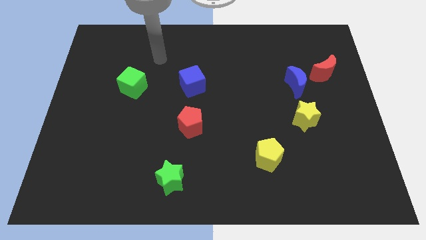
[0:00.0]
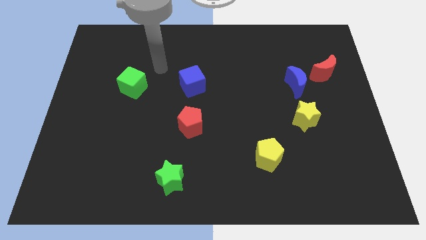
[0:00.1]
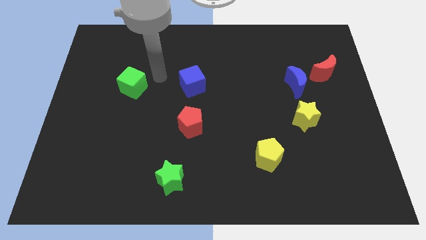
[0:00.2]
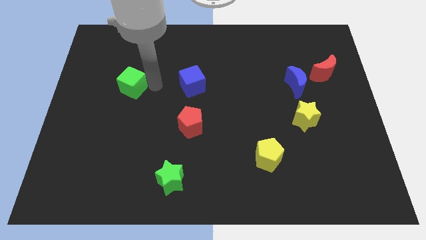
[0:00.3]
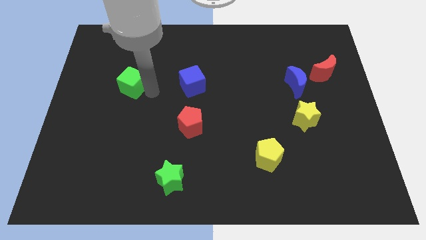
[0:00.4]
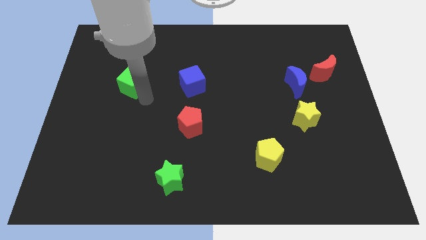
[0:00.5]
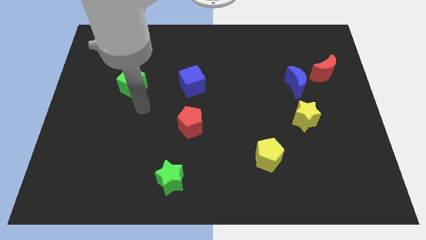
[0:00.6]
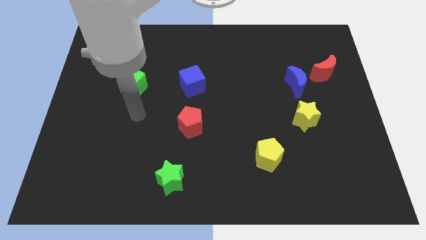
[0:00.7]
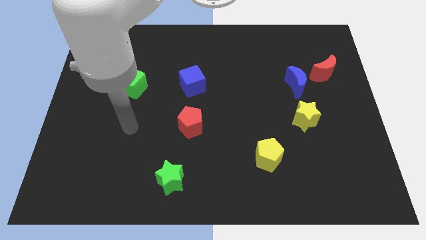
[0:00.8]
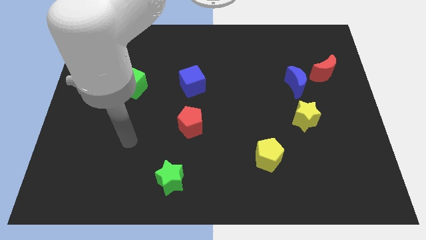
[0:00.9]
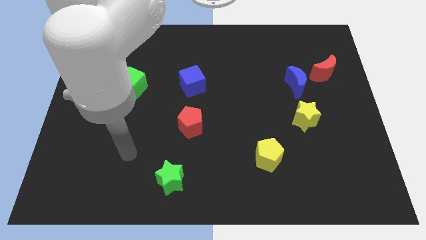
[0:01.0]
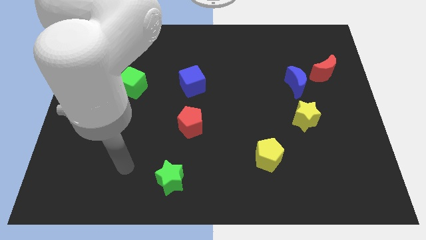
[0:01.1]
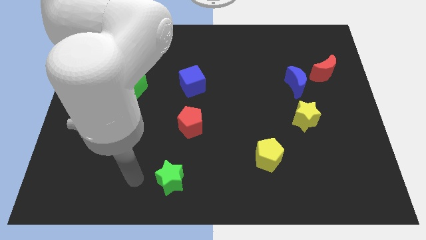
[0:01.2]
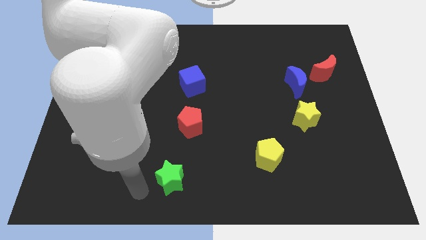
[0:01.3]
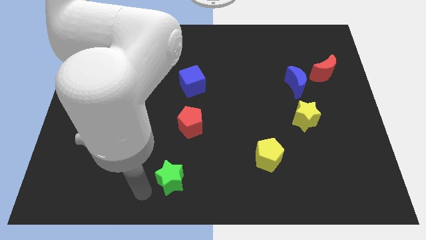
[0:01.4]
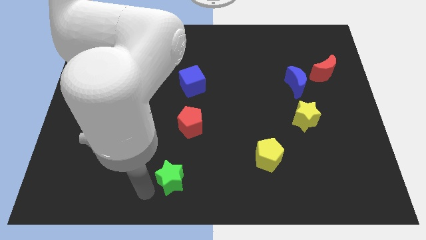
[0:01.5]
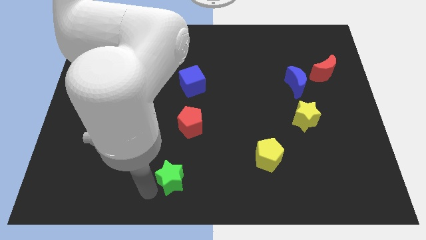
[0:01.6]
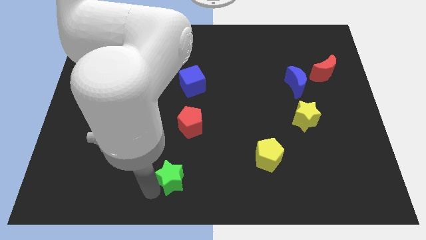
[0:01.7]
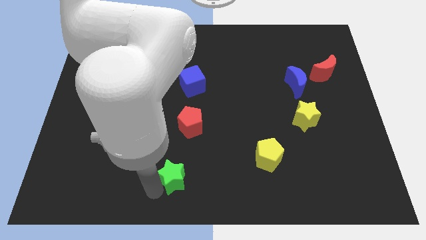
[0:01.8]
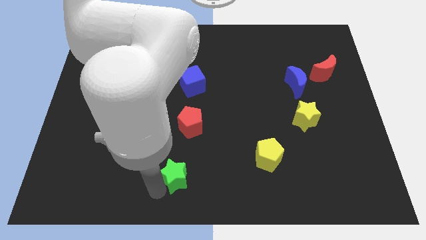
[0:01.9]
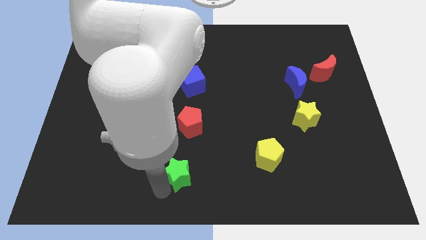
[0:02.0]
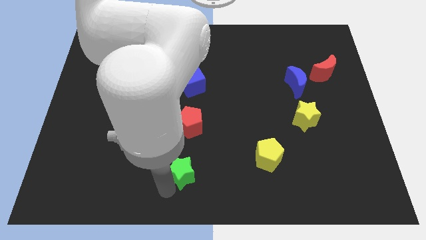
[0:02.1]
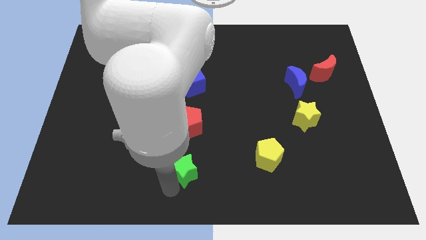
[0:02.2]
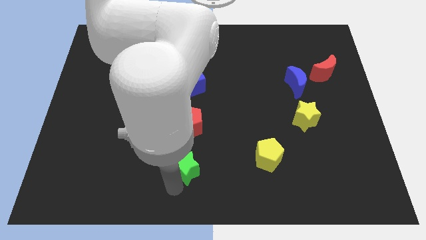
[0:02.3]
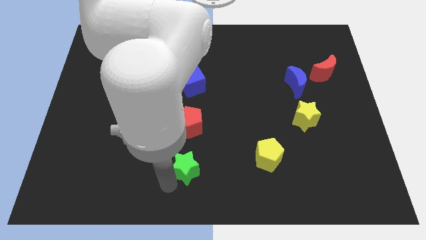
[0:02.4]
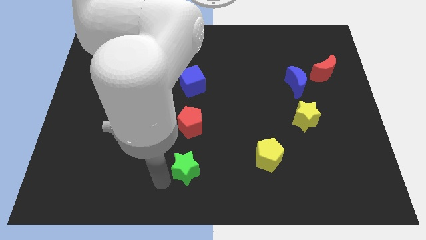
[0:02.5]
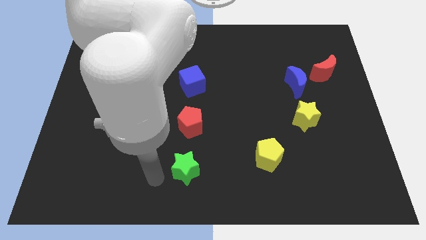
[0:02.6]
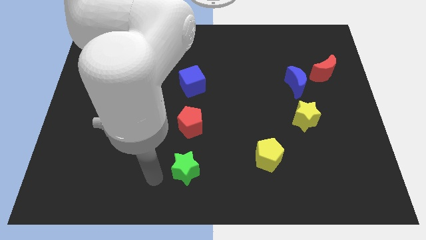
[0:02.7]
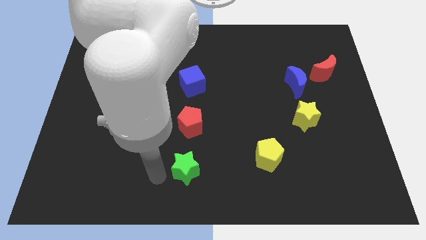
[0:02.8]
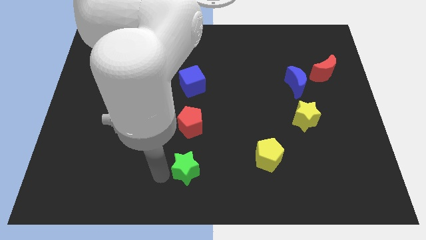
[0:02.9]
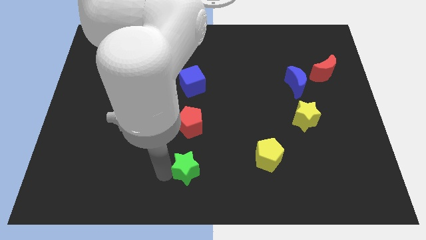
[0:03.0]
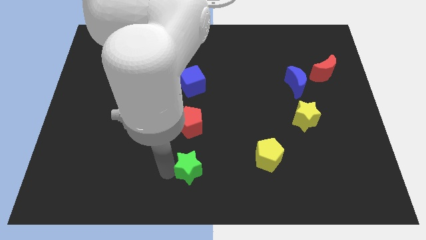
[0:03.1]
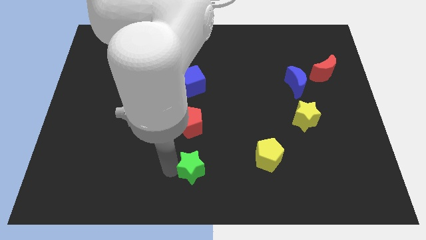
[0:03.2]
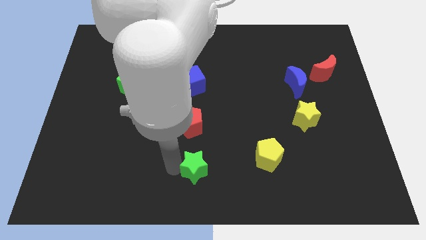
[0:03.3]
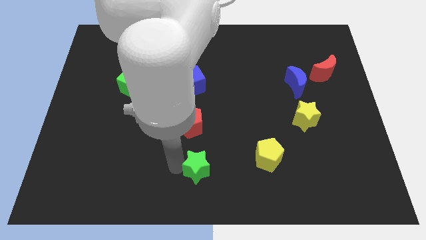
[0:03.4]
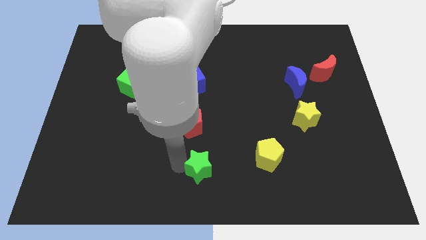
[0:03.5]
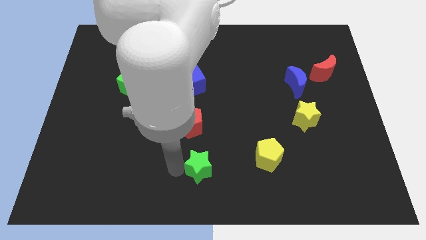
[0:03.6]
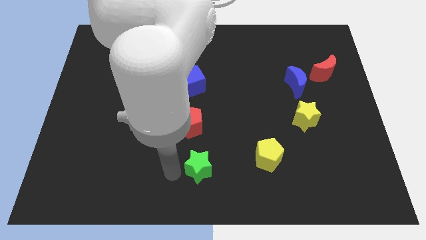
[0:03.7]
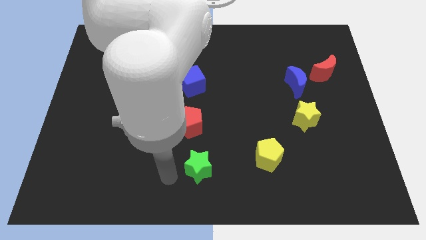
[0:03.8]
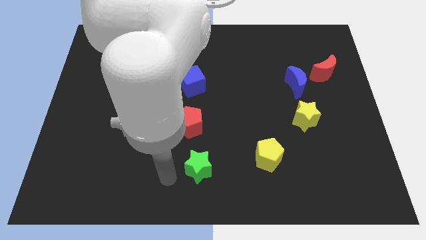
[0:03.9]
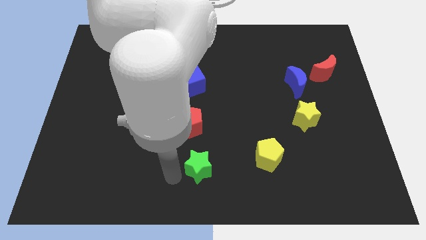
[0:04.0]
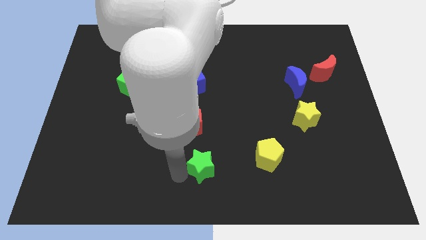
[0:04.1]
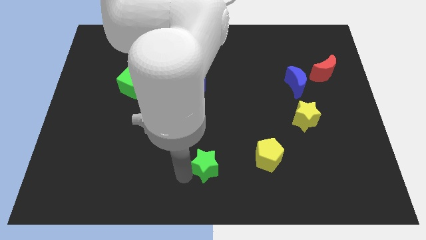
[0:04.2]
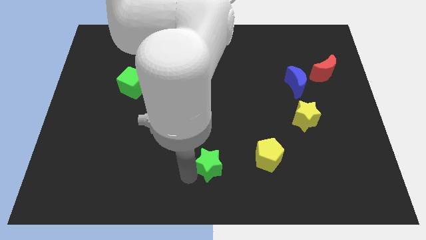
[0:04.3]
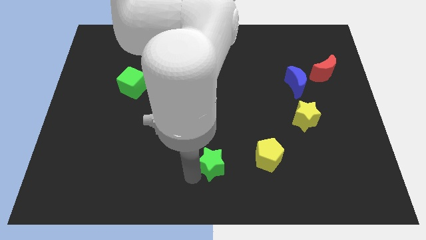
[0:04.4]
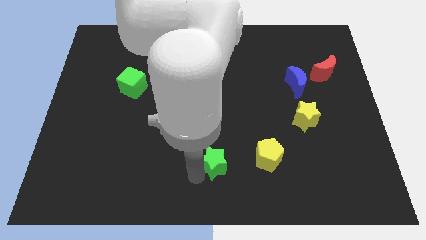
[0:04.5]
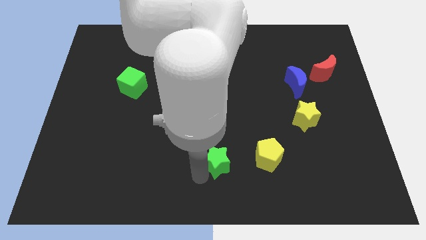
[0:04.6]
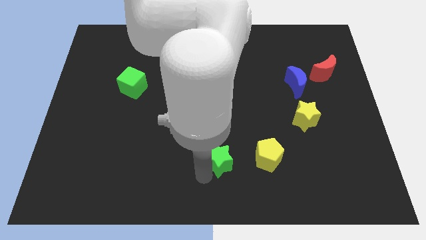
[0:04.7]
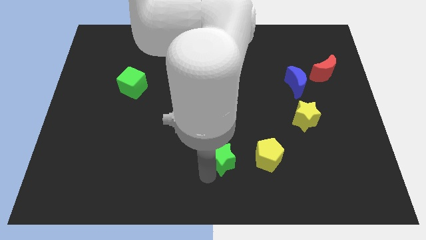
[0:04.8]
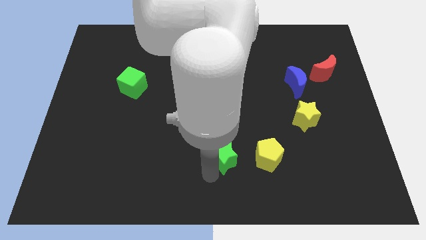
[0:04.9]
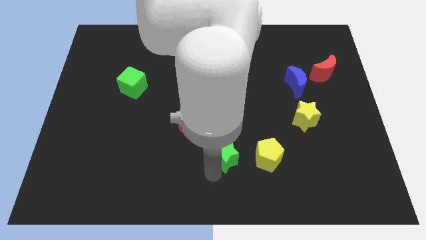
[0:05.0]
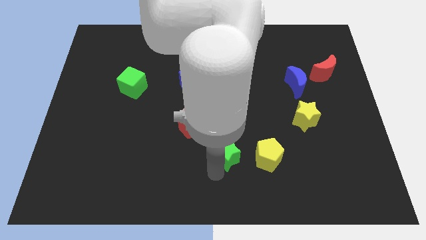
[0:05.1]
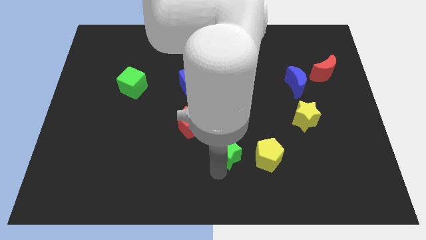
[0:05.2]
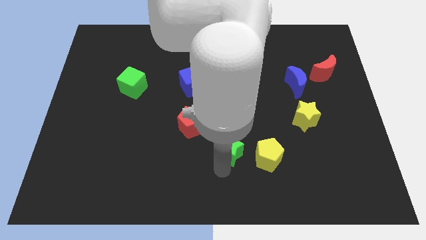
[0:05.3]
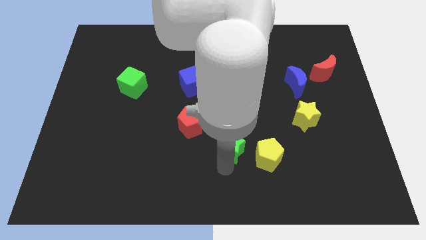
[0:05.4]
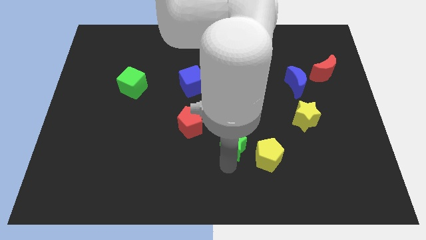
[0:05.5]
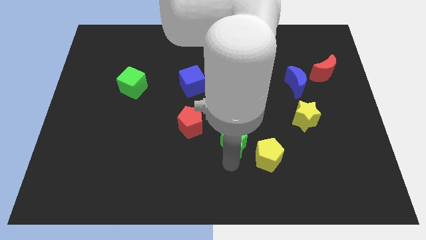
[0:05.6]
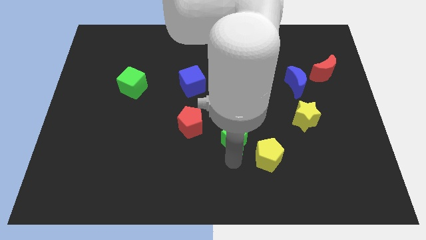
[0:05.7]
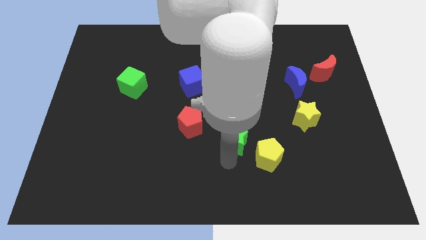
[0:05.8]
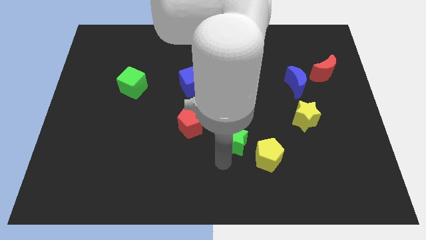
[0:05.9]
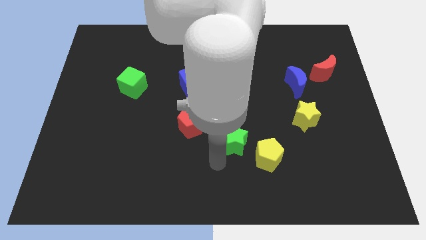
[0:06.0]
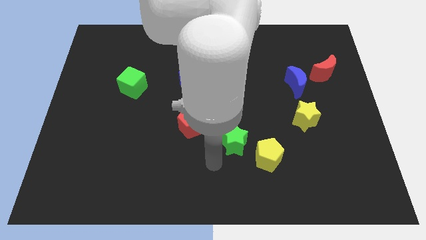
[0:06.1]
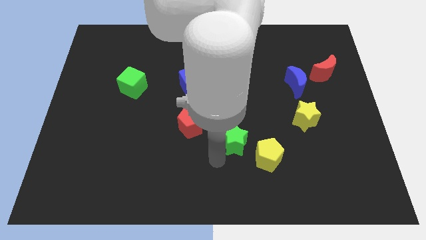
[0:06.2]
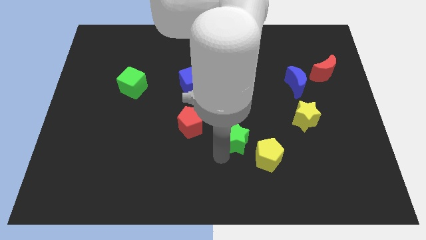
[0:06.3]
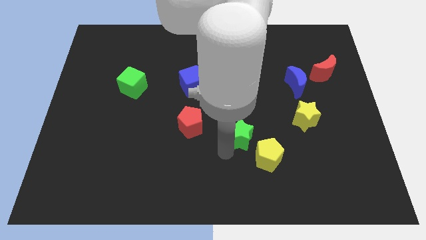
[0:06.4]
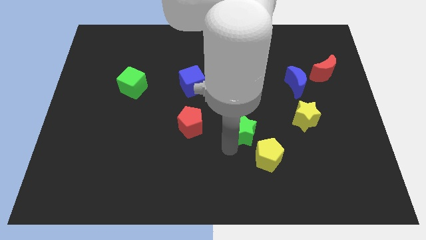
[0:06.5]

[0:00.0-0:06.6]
move the green star left of the yellow star

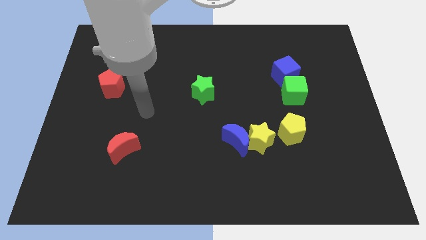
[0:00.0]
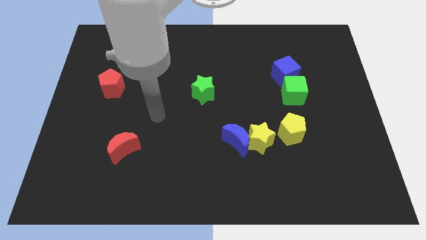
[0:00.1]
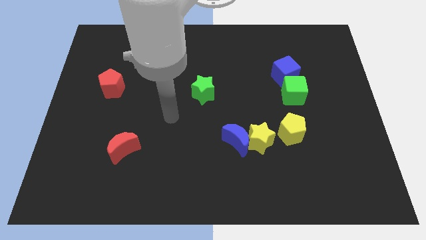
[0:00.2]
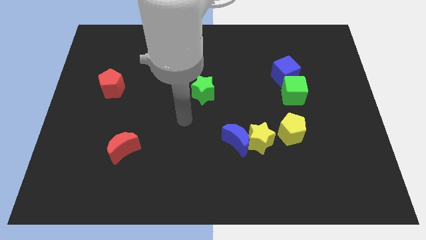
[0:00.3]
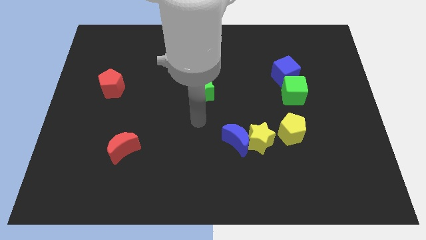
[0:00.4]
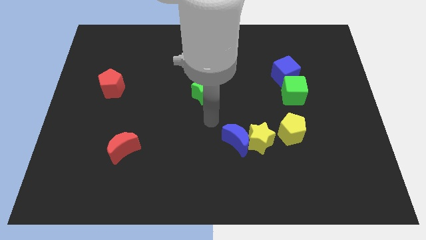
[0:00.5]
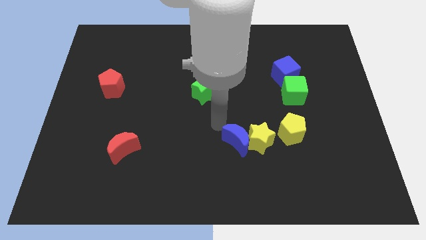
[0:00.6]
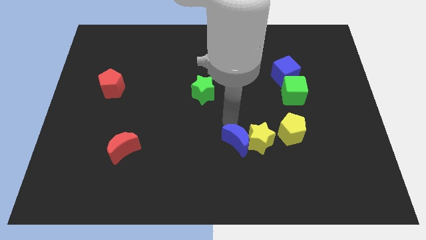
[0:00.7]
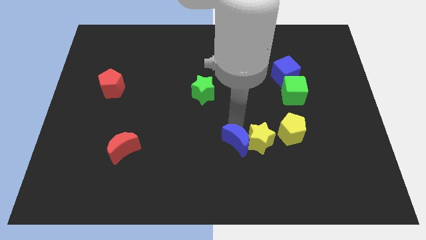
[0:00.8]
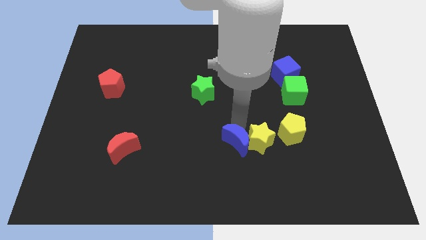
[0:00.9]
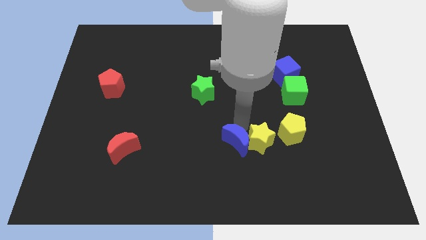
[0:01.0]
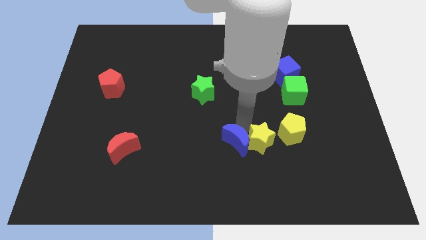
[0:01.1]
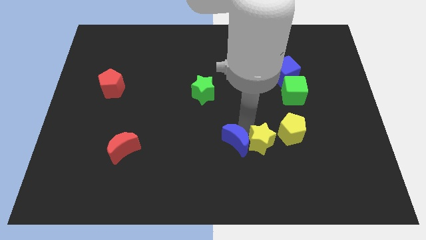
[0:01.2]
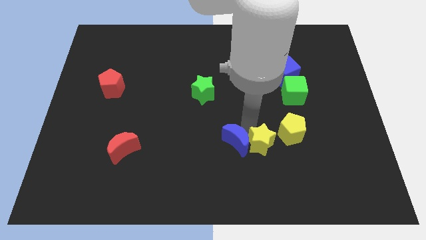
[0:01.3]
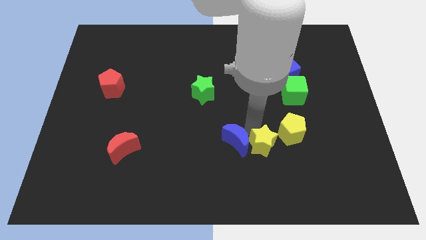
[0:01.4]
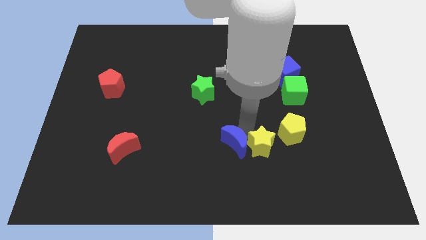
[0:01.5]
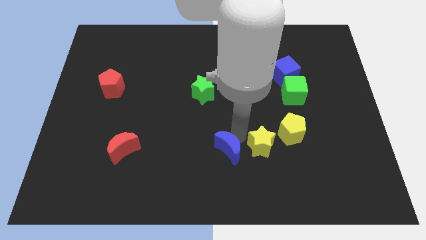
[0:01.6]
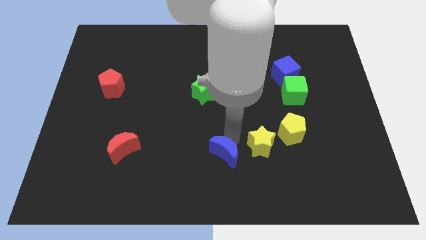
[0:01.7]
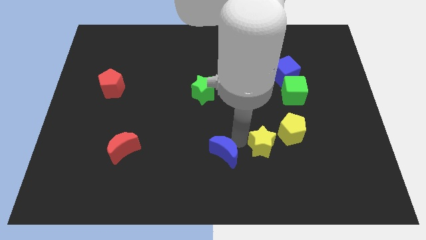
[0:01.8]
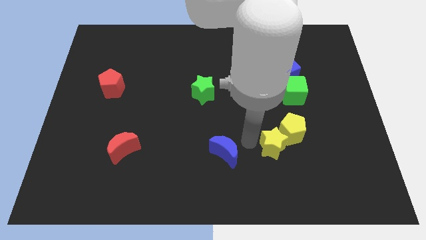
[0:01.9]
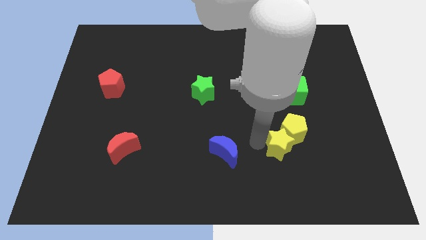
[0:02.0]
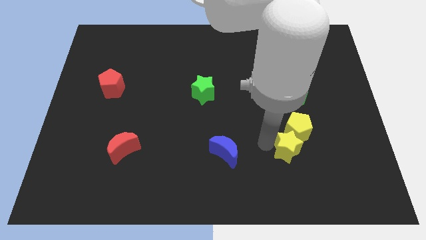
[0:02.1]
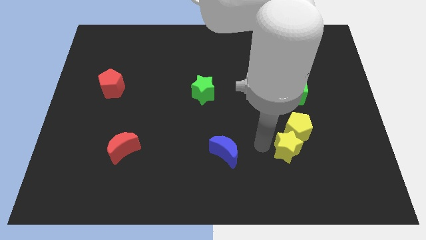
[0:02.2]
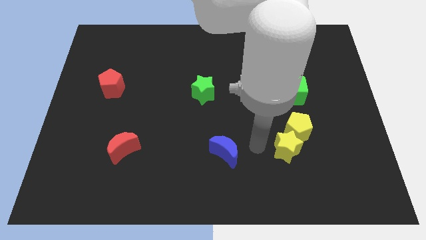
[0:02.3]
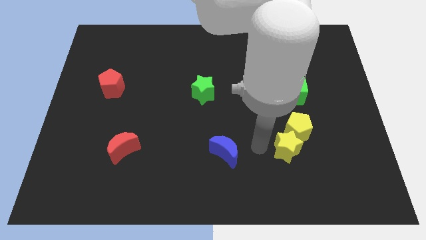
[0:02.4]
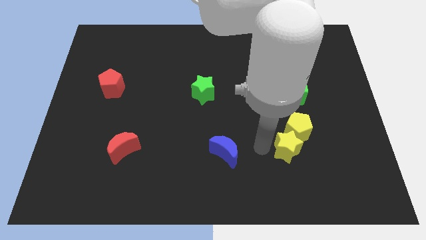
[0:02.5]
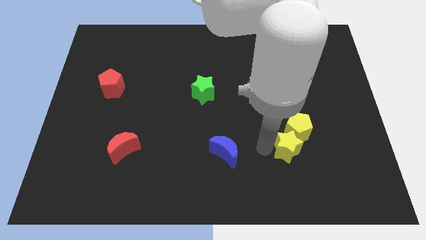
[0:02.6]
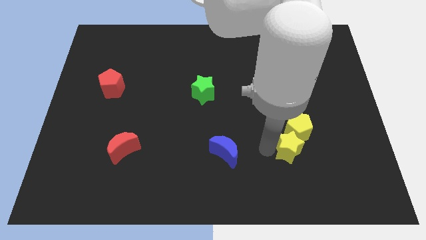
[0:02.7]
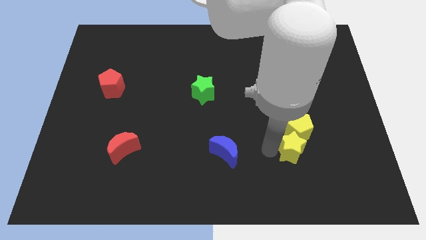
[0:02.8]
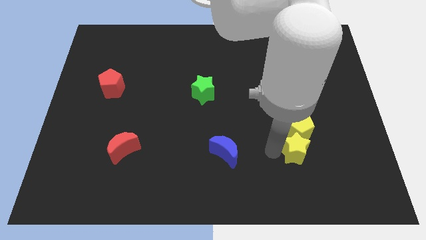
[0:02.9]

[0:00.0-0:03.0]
move the yellow star below the green cube
